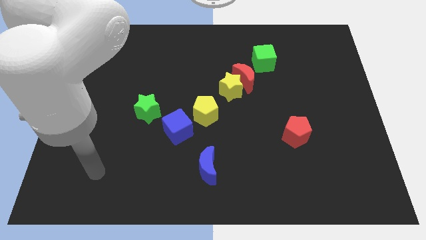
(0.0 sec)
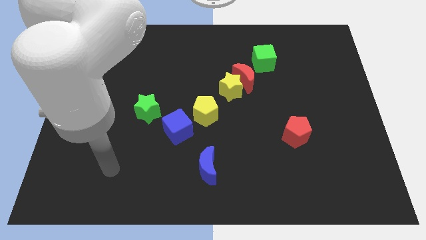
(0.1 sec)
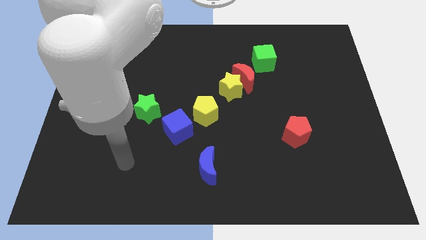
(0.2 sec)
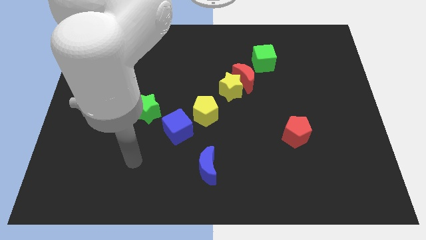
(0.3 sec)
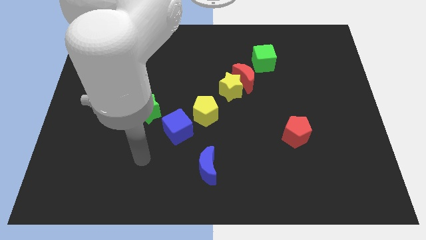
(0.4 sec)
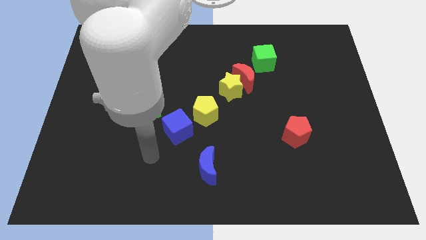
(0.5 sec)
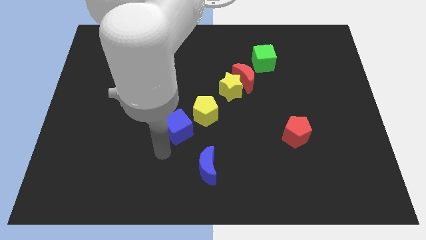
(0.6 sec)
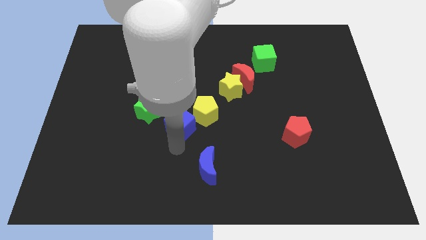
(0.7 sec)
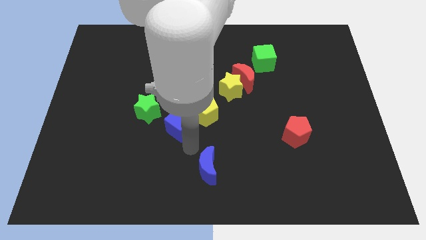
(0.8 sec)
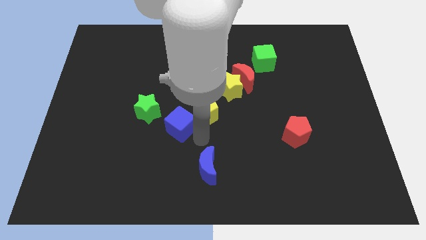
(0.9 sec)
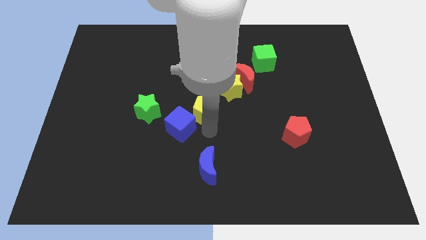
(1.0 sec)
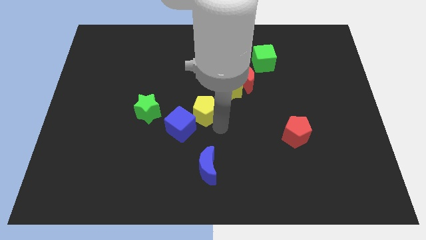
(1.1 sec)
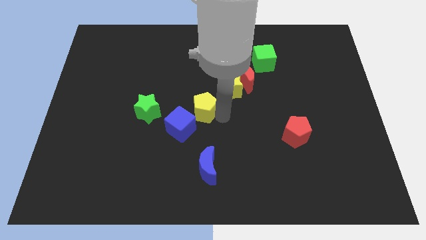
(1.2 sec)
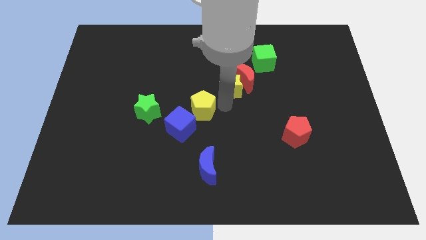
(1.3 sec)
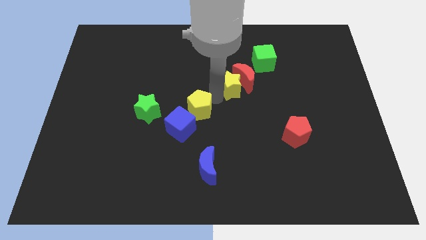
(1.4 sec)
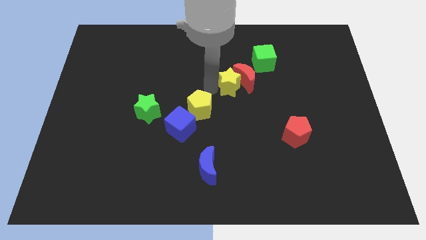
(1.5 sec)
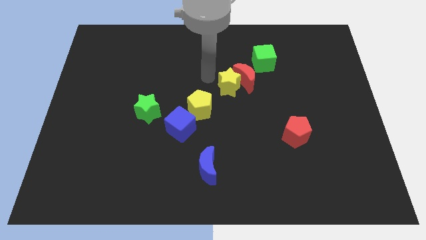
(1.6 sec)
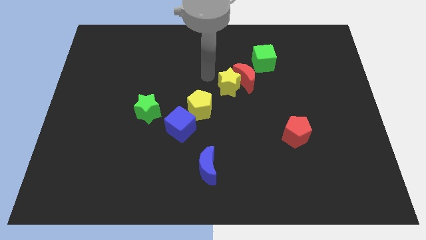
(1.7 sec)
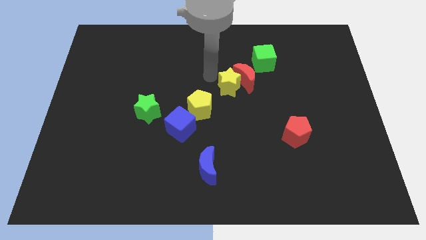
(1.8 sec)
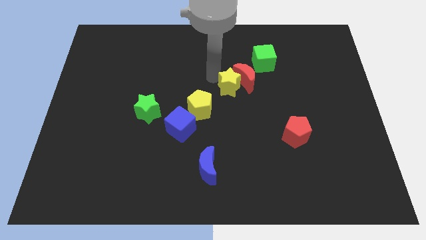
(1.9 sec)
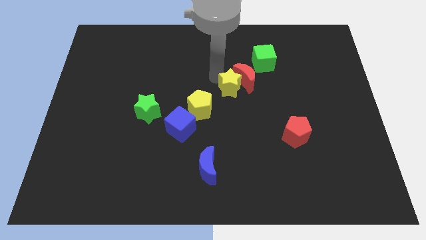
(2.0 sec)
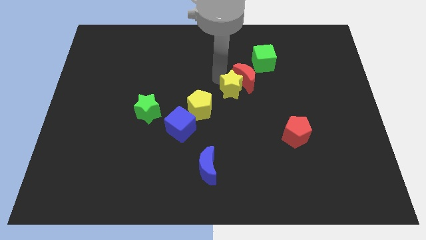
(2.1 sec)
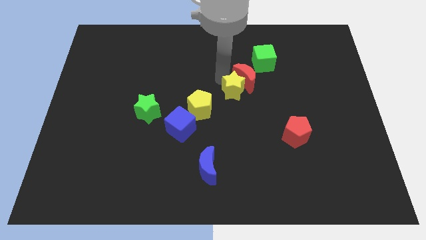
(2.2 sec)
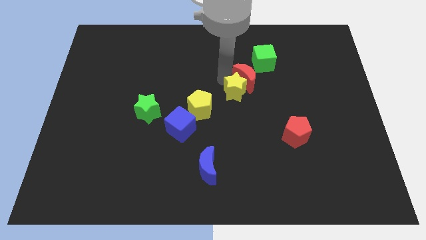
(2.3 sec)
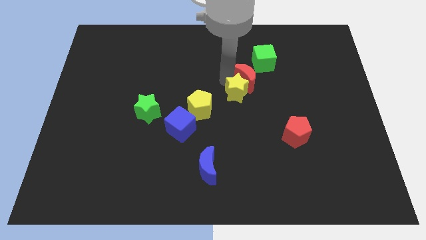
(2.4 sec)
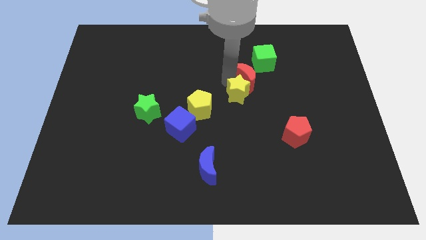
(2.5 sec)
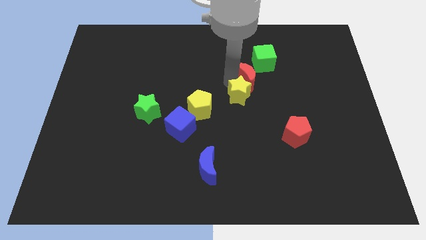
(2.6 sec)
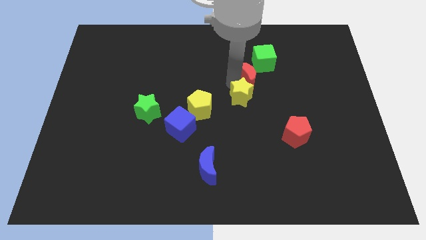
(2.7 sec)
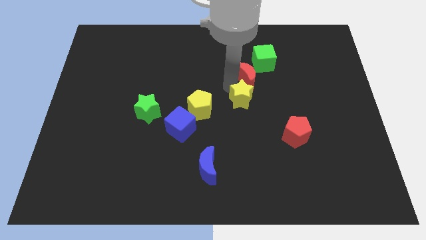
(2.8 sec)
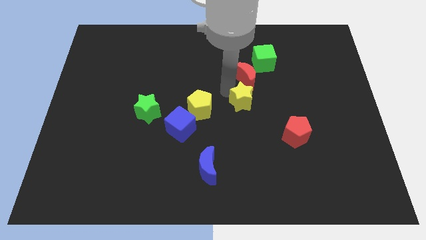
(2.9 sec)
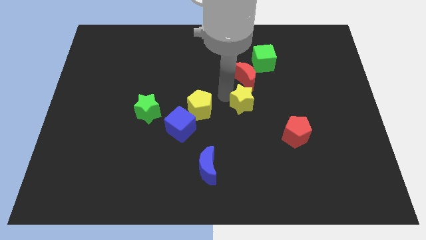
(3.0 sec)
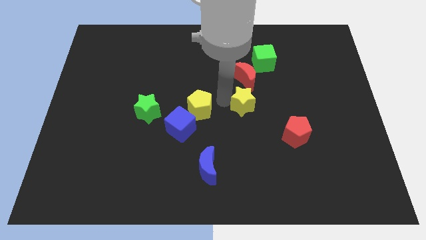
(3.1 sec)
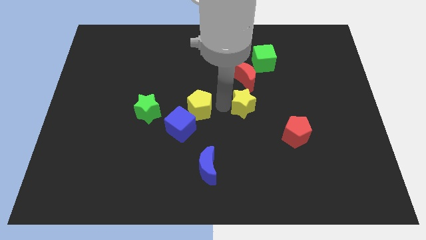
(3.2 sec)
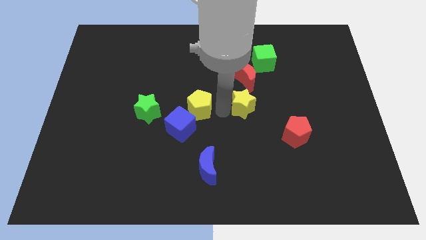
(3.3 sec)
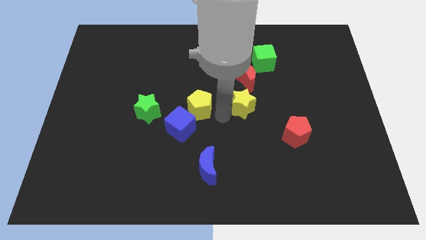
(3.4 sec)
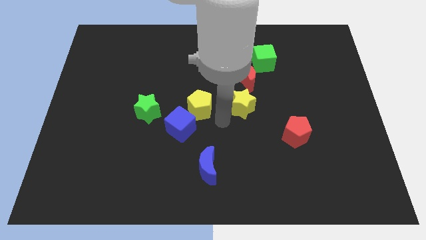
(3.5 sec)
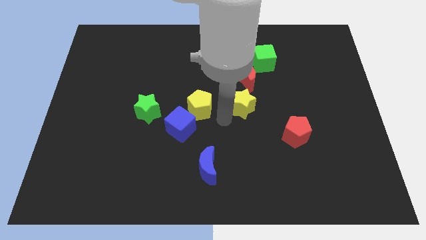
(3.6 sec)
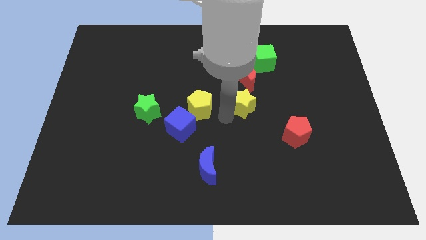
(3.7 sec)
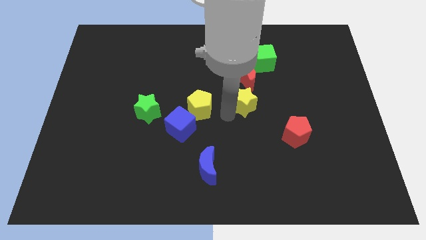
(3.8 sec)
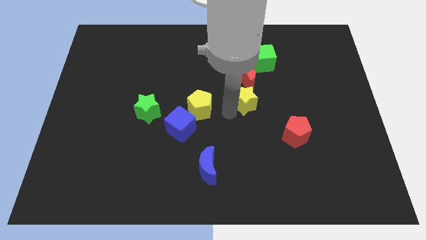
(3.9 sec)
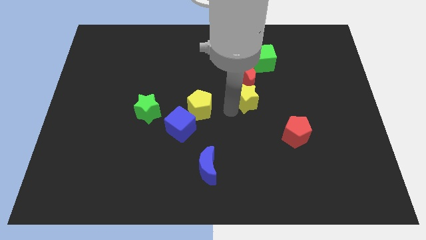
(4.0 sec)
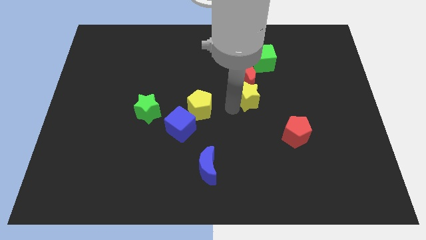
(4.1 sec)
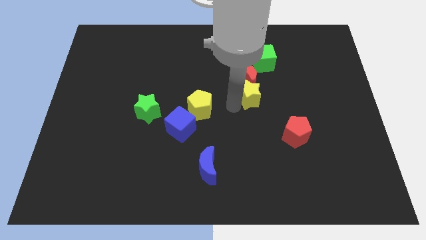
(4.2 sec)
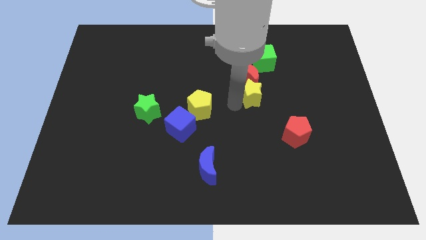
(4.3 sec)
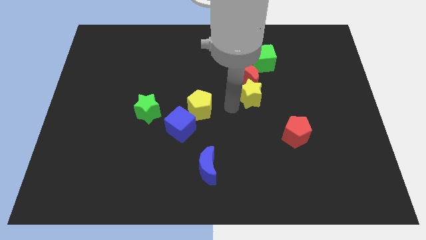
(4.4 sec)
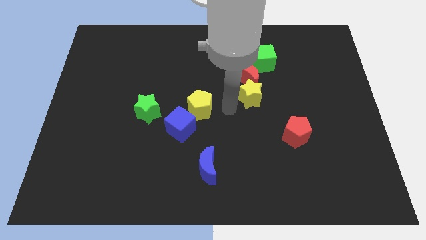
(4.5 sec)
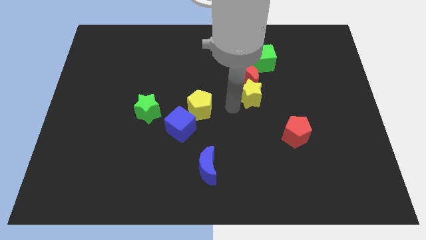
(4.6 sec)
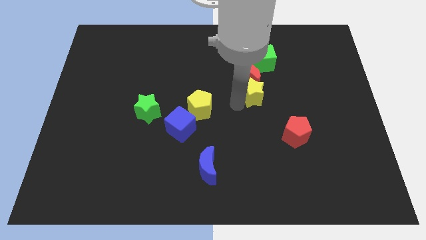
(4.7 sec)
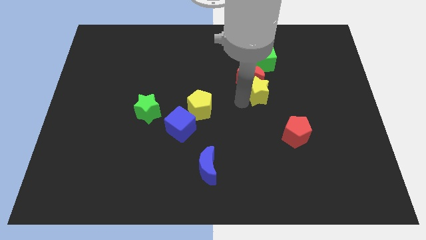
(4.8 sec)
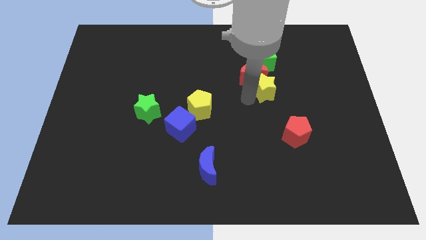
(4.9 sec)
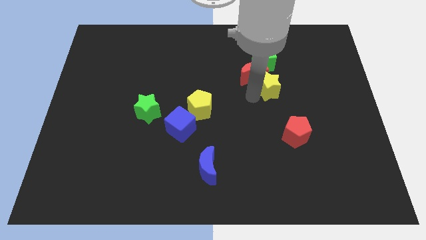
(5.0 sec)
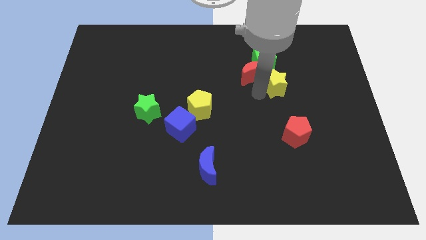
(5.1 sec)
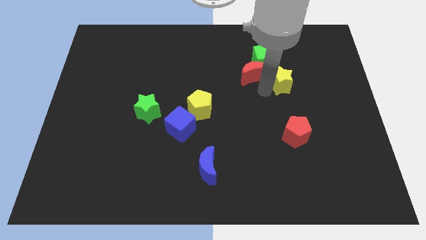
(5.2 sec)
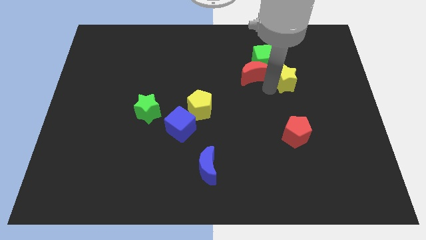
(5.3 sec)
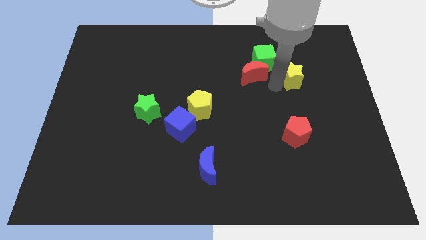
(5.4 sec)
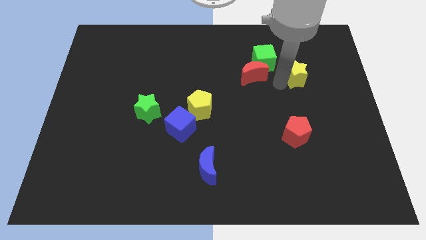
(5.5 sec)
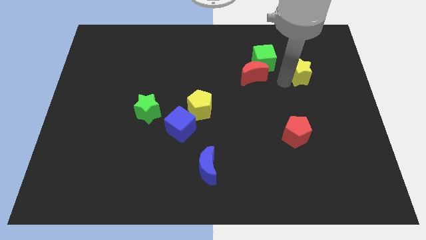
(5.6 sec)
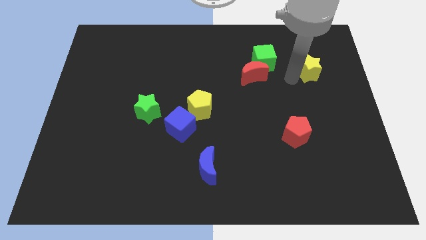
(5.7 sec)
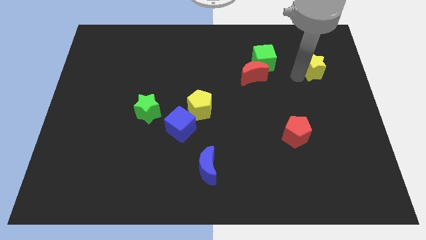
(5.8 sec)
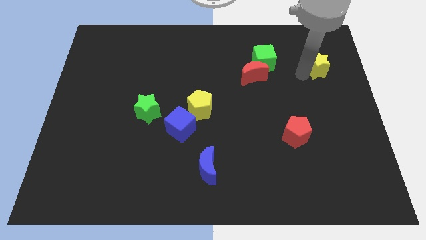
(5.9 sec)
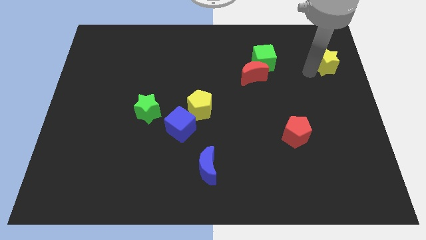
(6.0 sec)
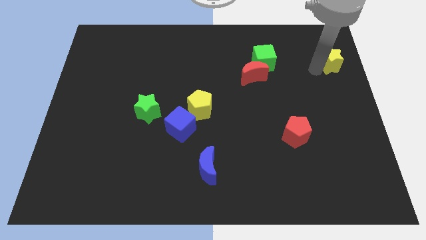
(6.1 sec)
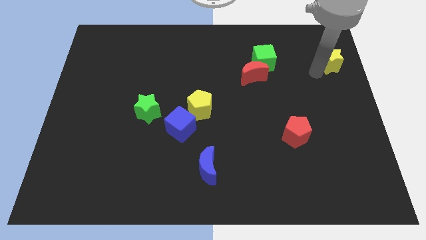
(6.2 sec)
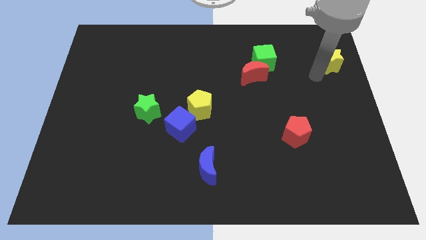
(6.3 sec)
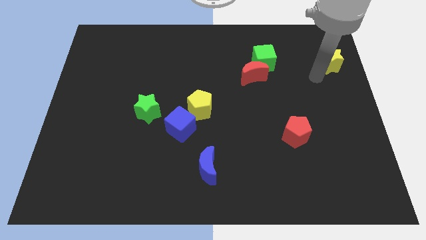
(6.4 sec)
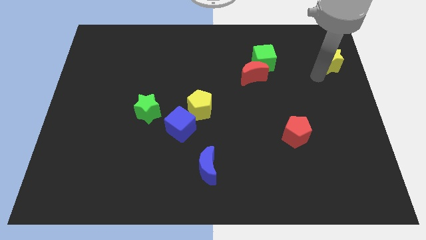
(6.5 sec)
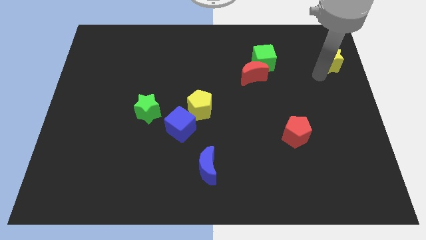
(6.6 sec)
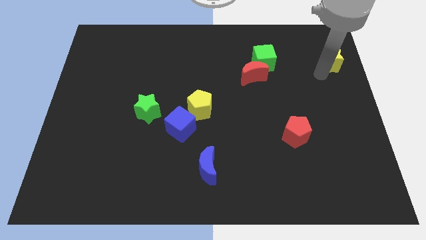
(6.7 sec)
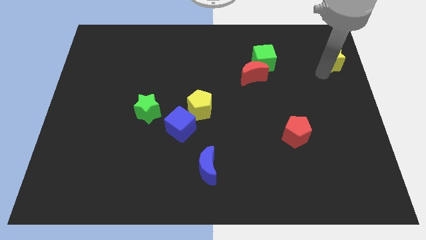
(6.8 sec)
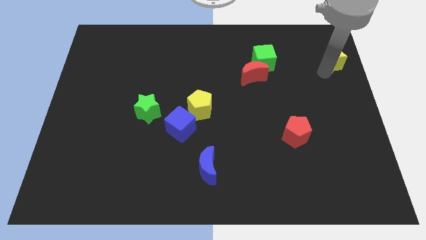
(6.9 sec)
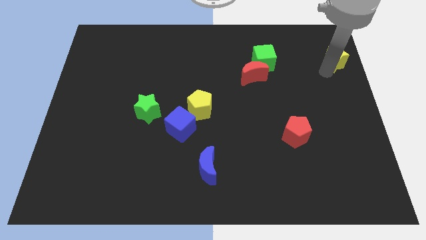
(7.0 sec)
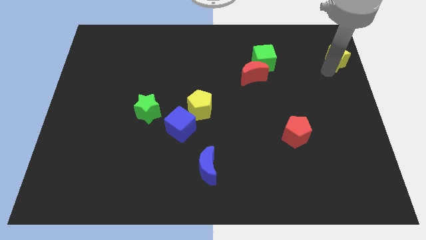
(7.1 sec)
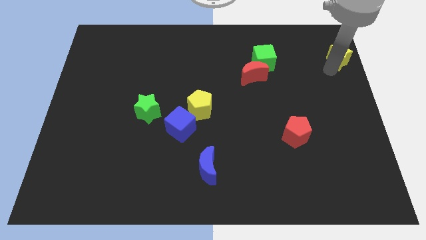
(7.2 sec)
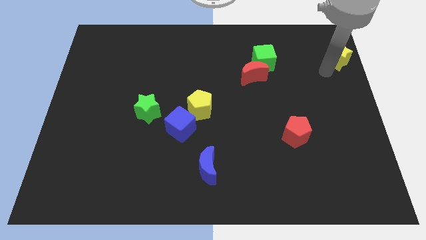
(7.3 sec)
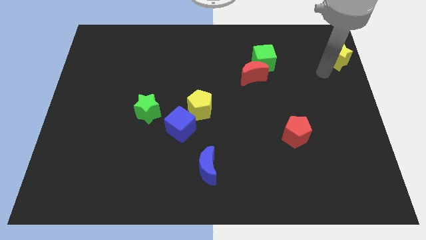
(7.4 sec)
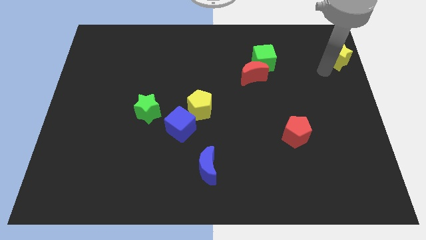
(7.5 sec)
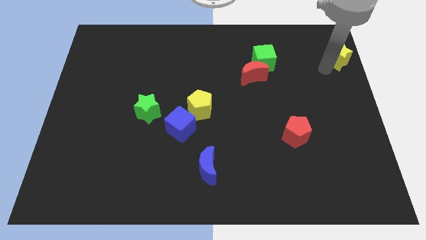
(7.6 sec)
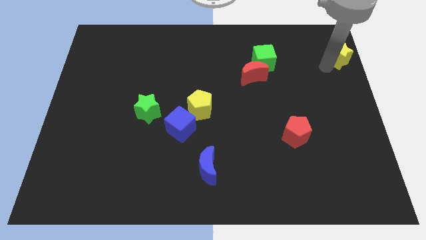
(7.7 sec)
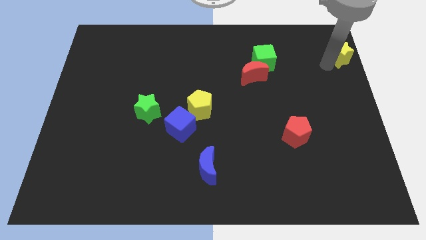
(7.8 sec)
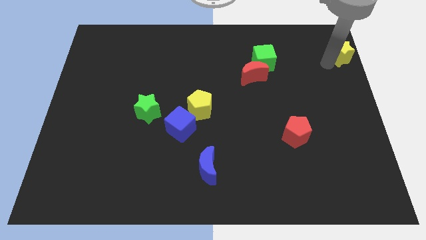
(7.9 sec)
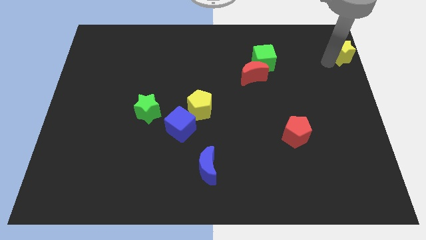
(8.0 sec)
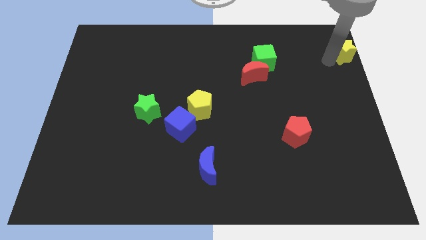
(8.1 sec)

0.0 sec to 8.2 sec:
slide the yellow star to the top right of the board
